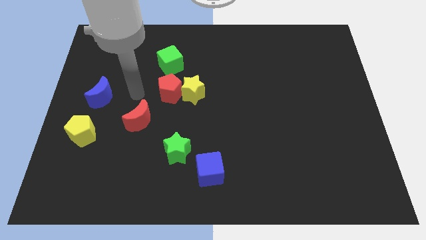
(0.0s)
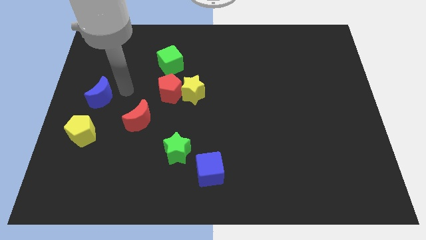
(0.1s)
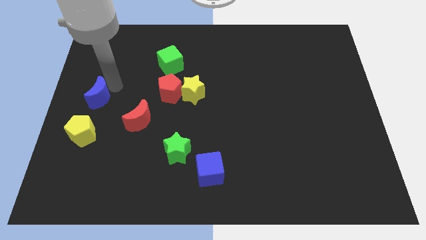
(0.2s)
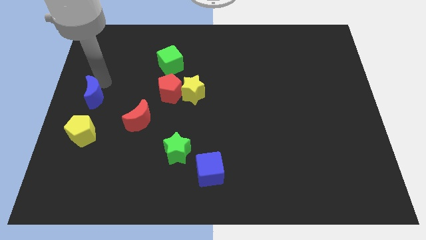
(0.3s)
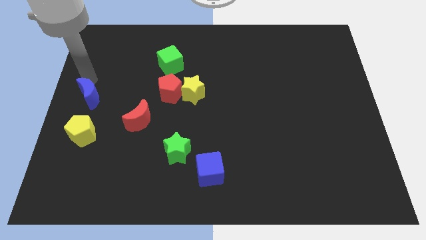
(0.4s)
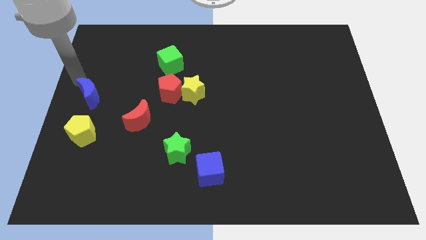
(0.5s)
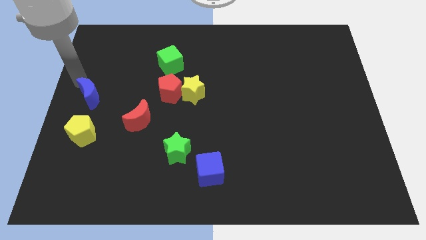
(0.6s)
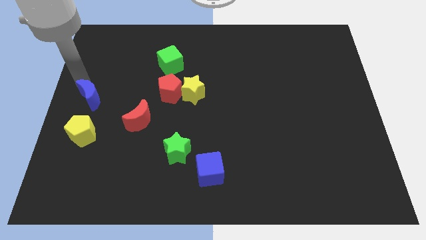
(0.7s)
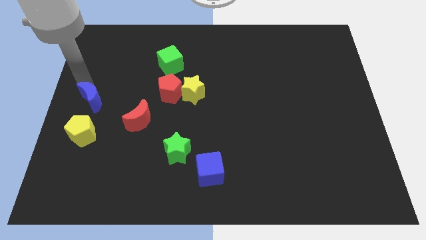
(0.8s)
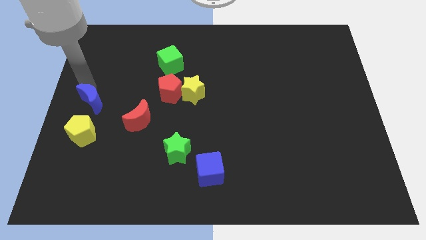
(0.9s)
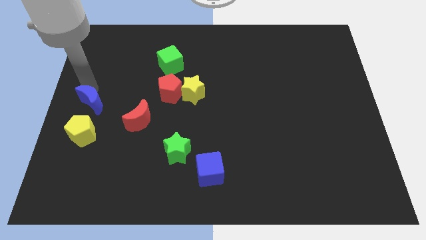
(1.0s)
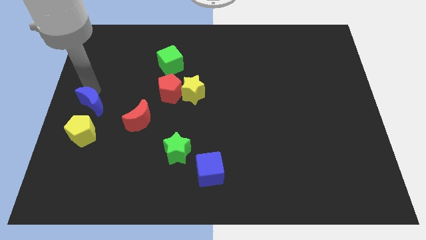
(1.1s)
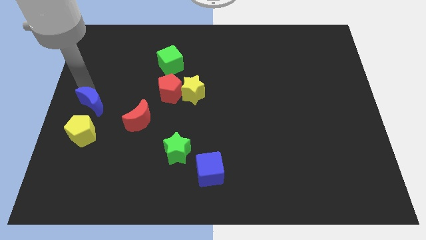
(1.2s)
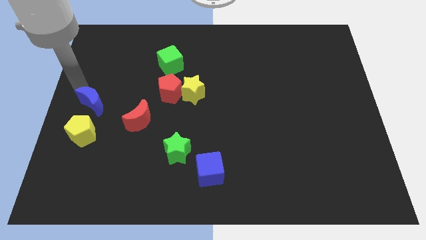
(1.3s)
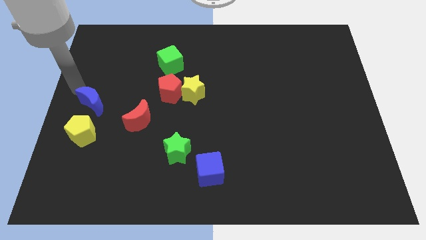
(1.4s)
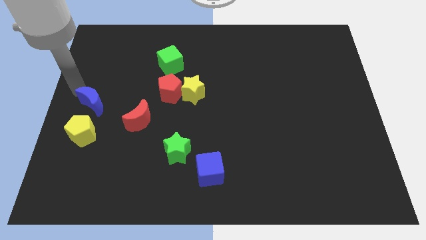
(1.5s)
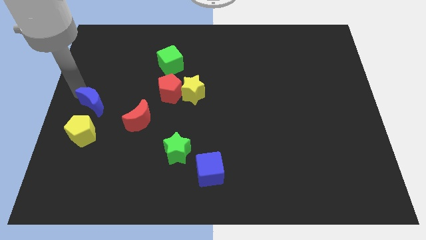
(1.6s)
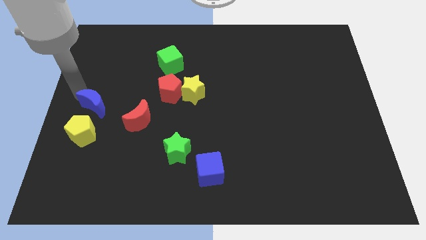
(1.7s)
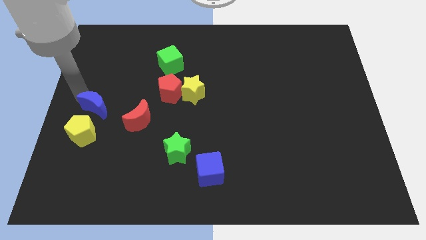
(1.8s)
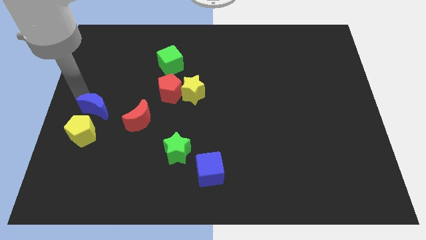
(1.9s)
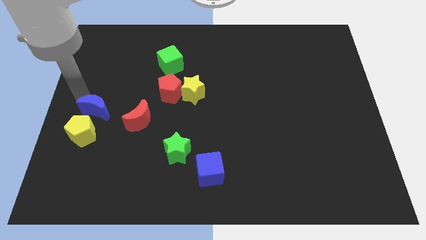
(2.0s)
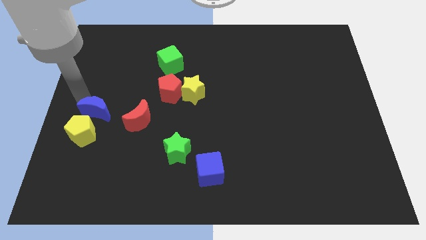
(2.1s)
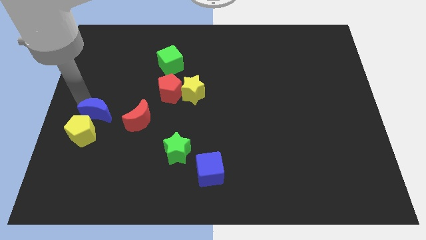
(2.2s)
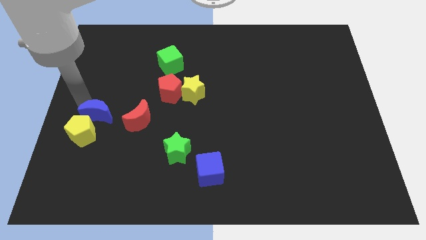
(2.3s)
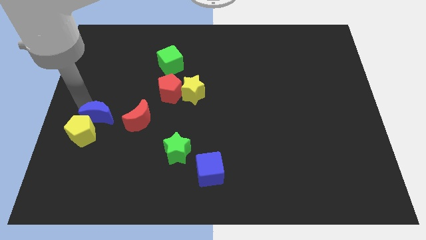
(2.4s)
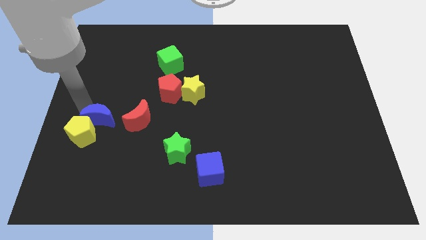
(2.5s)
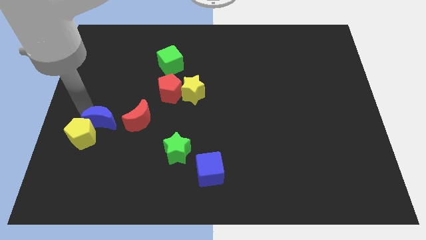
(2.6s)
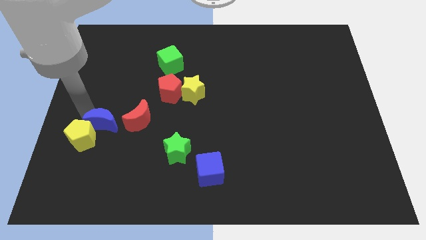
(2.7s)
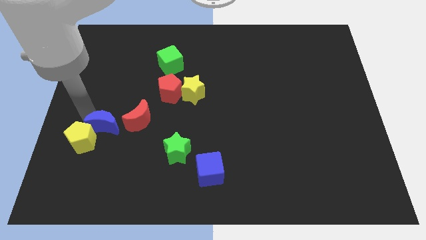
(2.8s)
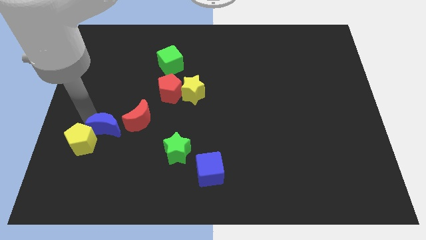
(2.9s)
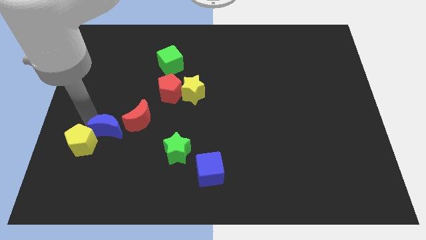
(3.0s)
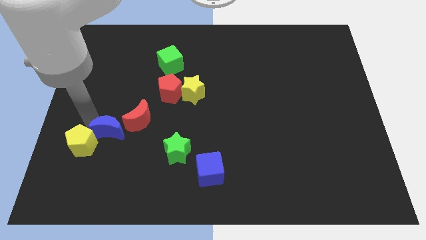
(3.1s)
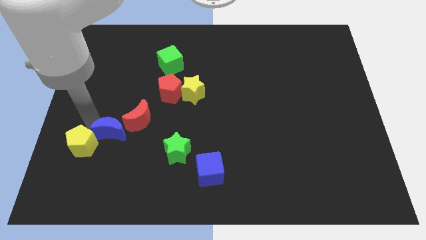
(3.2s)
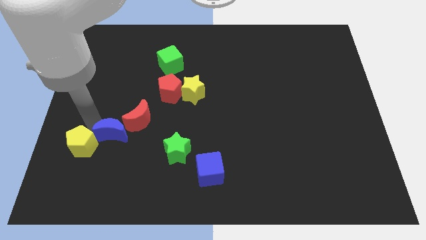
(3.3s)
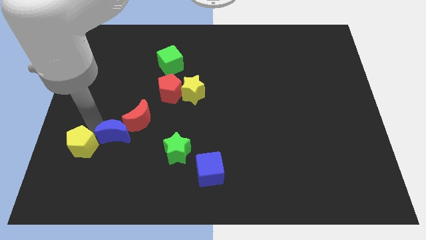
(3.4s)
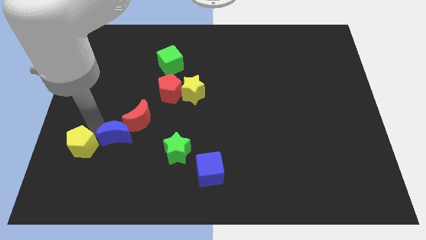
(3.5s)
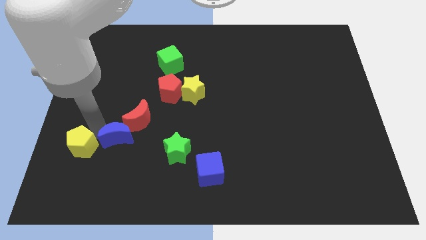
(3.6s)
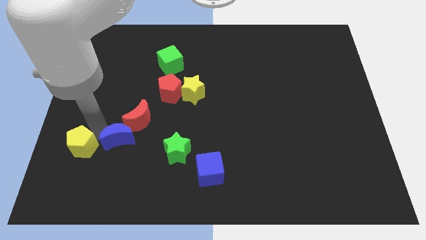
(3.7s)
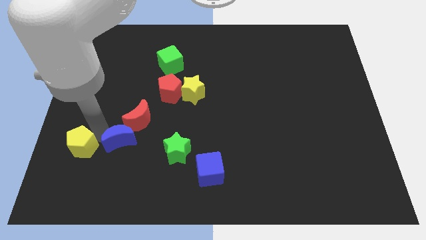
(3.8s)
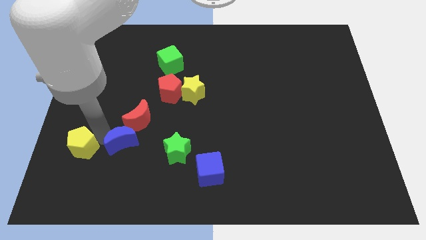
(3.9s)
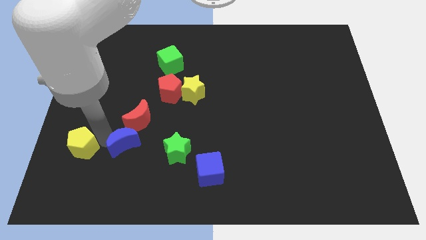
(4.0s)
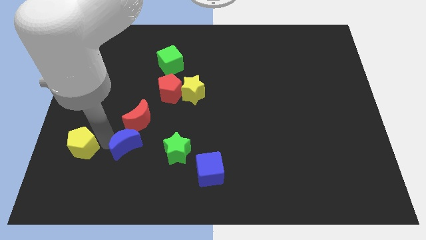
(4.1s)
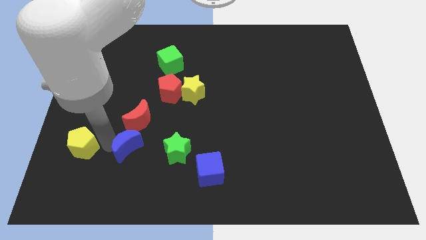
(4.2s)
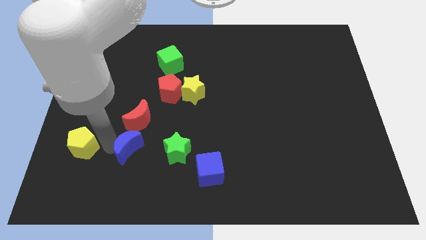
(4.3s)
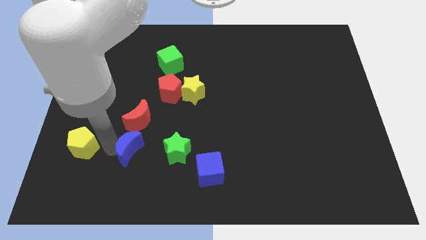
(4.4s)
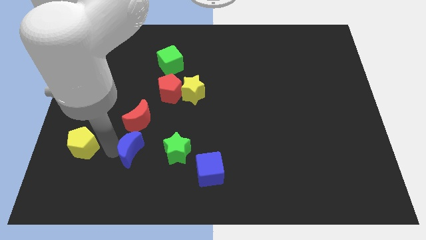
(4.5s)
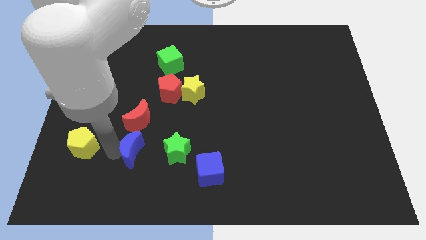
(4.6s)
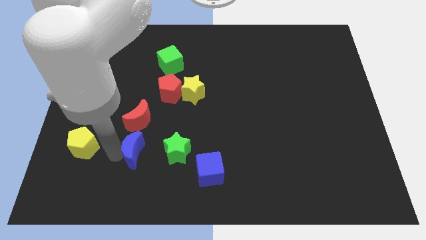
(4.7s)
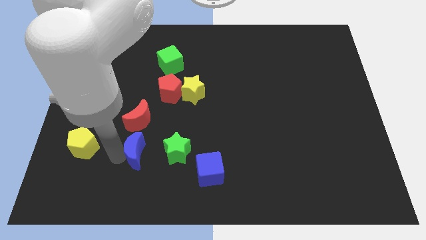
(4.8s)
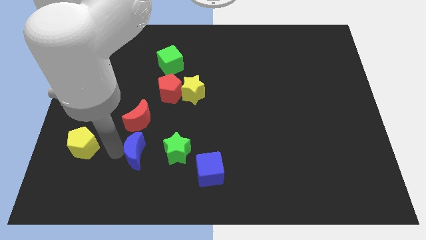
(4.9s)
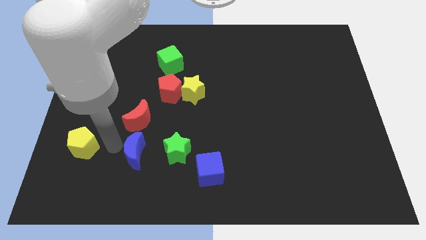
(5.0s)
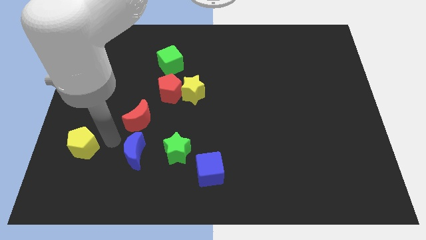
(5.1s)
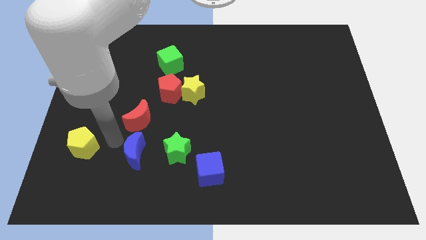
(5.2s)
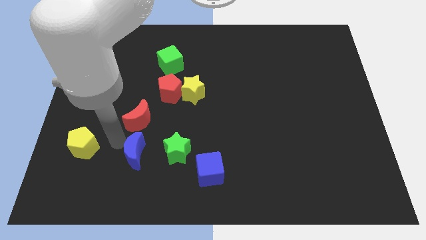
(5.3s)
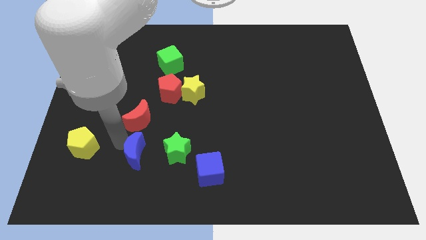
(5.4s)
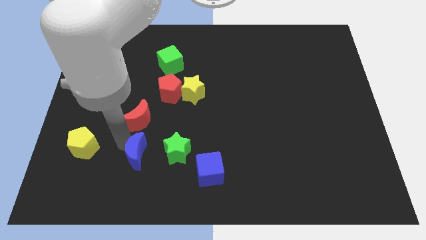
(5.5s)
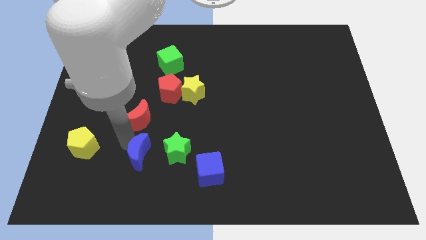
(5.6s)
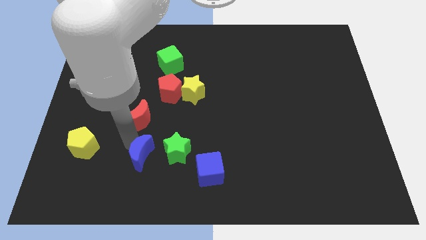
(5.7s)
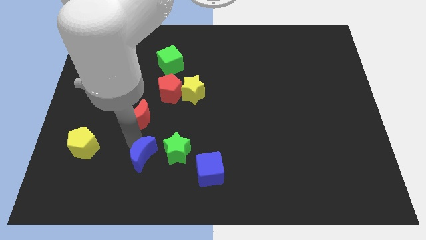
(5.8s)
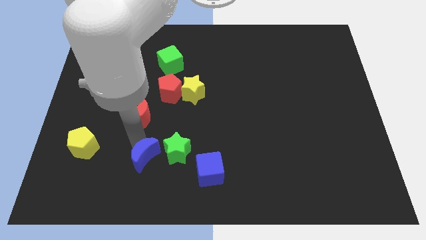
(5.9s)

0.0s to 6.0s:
move the blue moon diagonally downwards and to the right

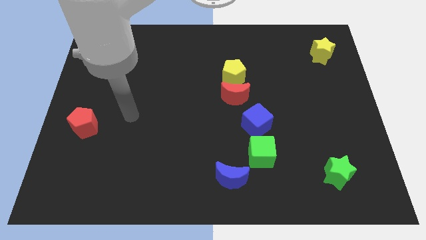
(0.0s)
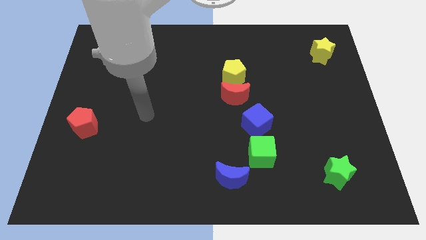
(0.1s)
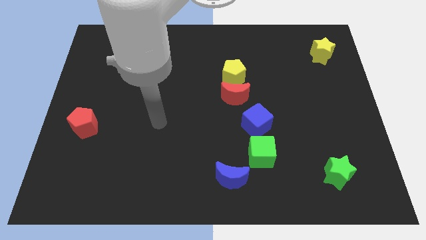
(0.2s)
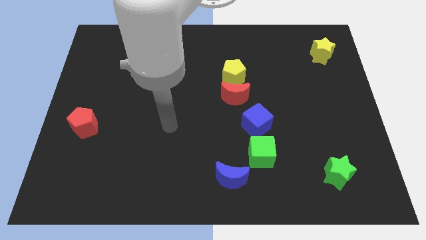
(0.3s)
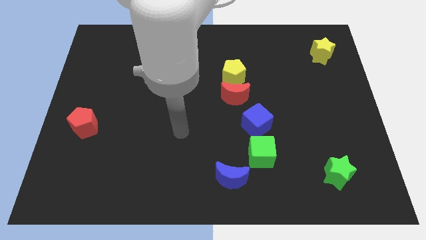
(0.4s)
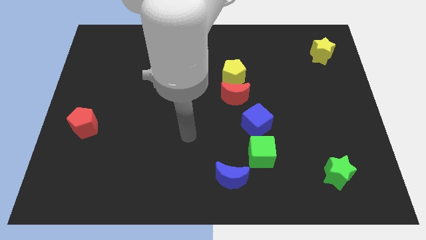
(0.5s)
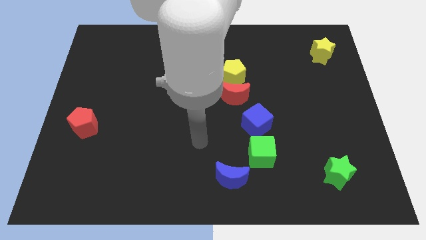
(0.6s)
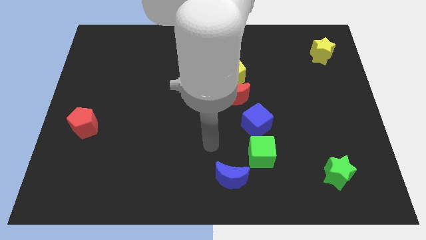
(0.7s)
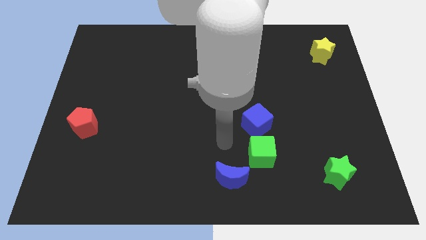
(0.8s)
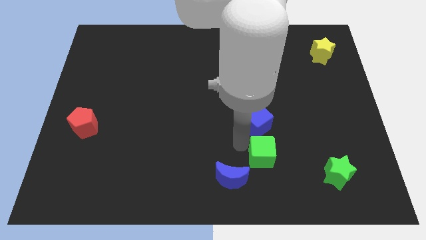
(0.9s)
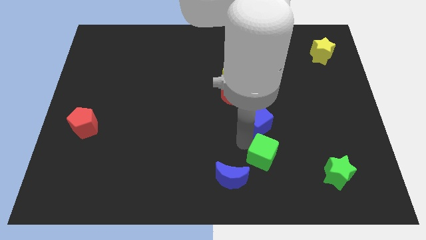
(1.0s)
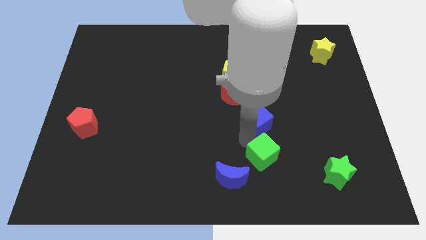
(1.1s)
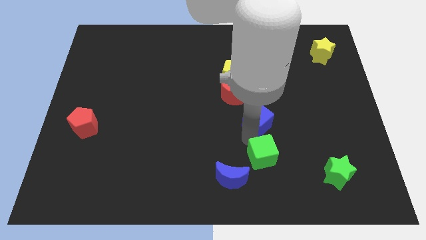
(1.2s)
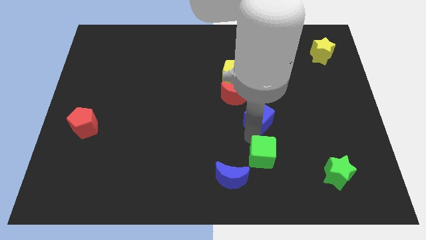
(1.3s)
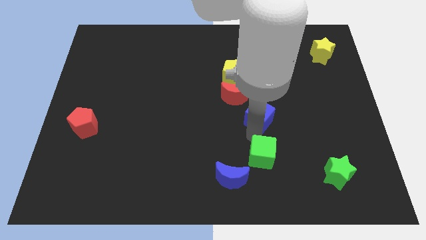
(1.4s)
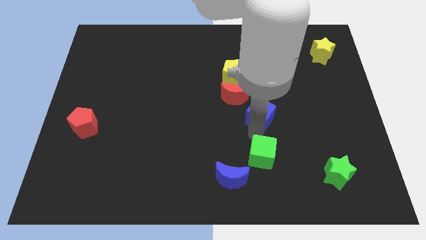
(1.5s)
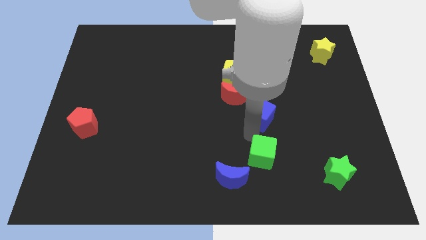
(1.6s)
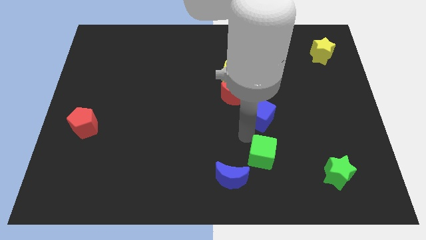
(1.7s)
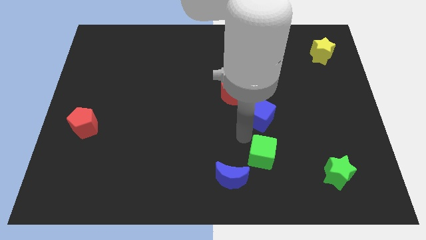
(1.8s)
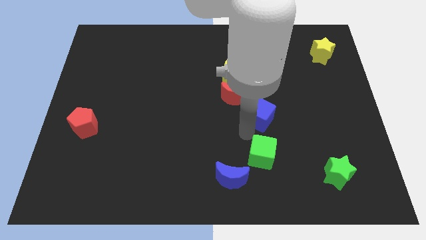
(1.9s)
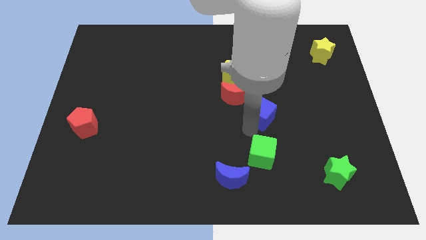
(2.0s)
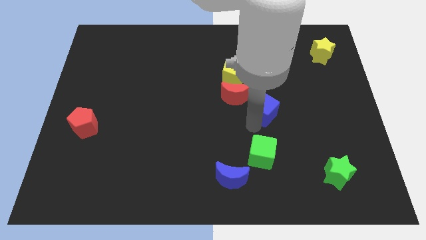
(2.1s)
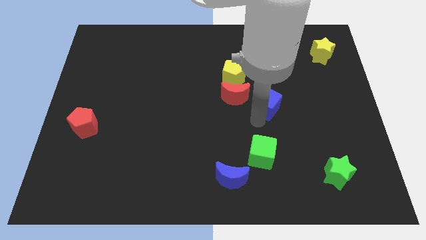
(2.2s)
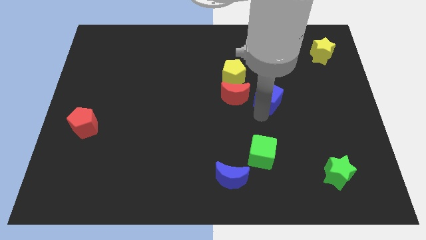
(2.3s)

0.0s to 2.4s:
move the blue cube slightly diagonally upwards and to the right
